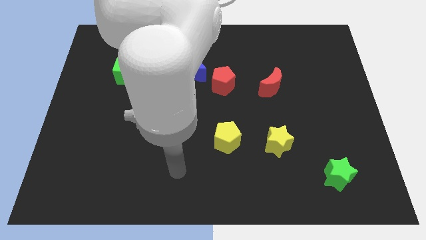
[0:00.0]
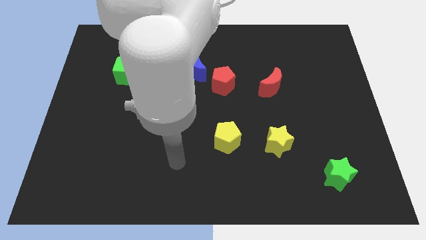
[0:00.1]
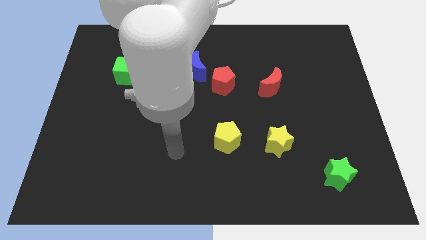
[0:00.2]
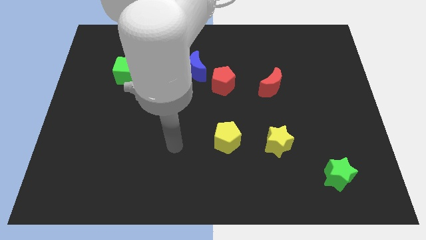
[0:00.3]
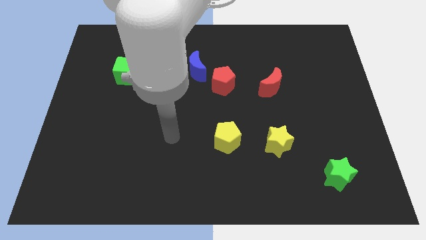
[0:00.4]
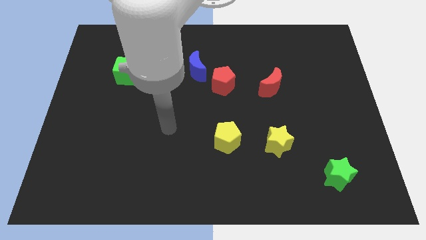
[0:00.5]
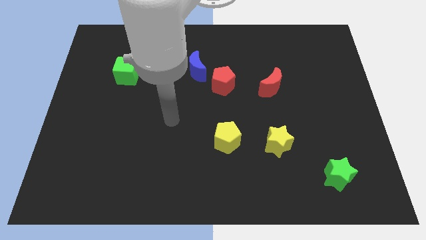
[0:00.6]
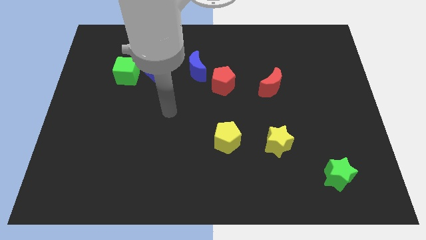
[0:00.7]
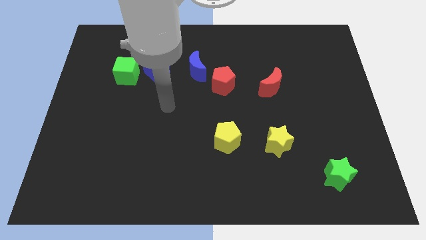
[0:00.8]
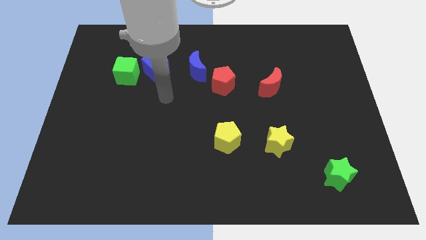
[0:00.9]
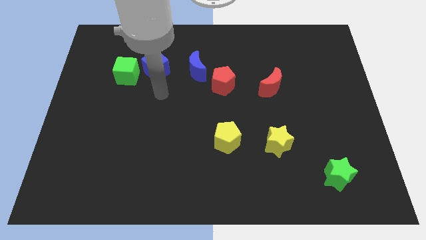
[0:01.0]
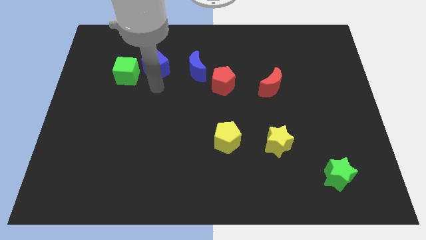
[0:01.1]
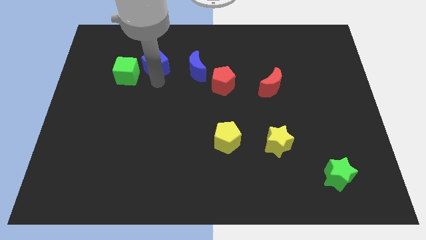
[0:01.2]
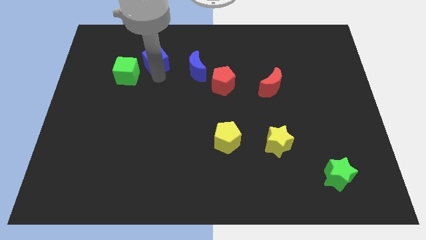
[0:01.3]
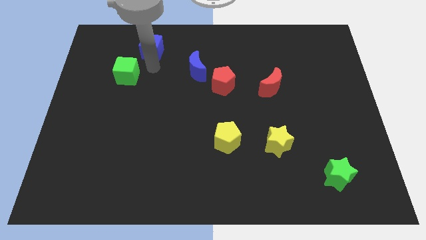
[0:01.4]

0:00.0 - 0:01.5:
pull the green cube apart from the blue cube

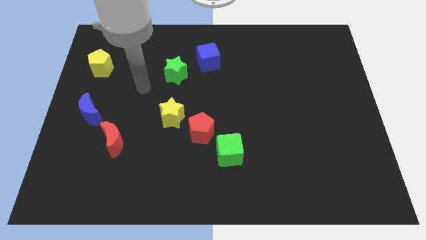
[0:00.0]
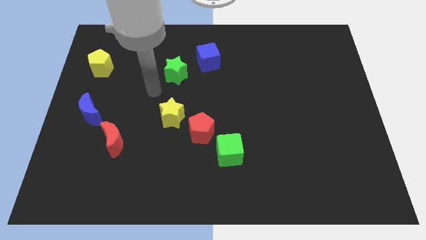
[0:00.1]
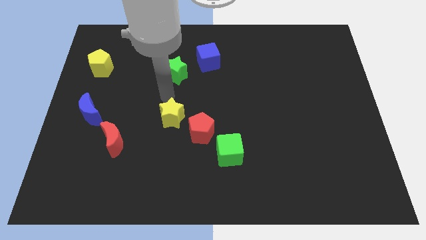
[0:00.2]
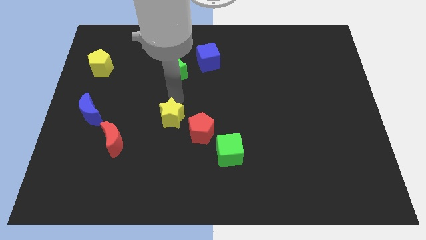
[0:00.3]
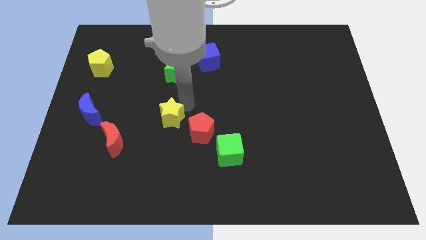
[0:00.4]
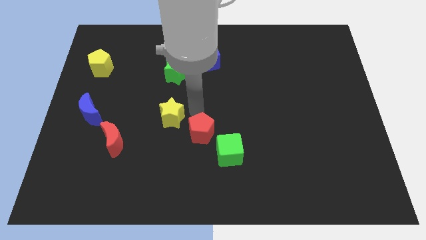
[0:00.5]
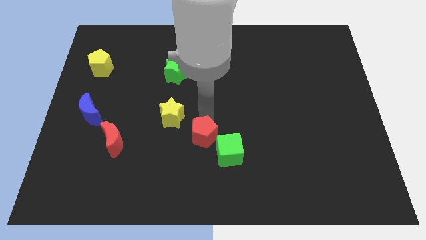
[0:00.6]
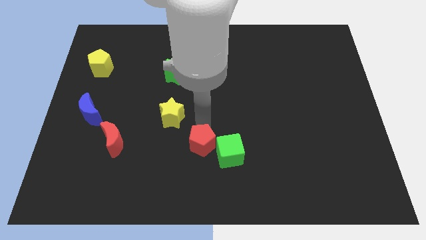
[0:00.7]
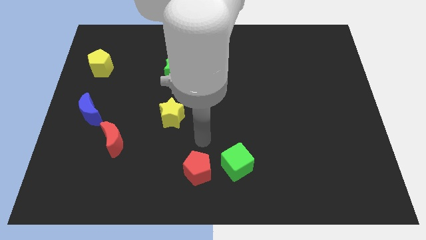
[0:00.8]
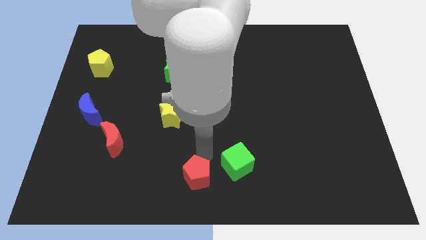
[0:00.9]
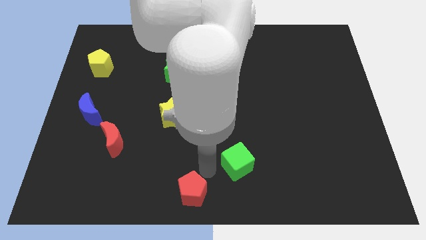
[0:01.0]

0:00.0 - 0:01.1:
separate the green cube from the red pentagon

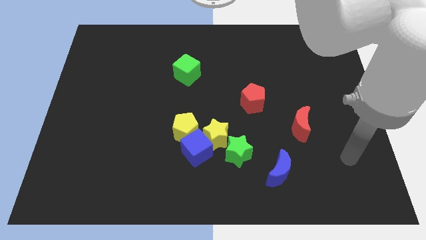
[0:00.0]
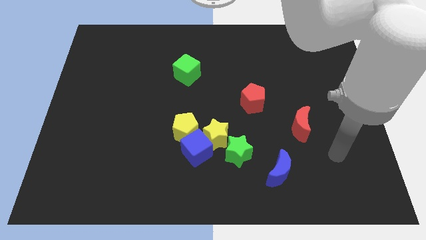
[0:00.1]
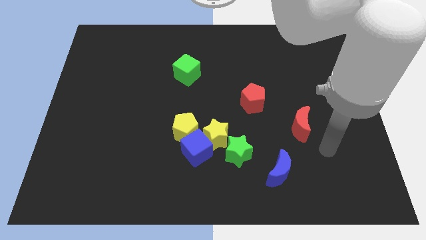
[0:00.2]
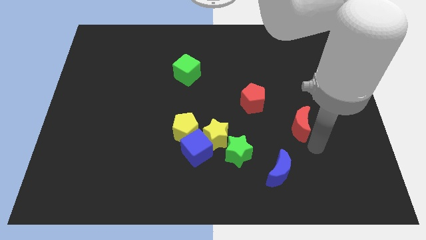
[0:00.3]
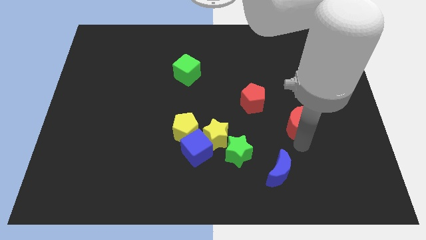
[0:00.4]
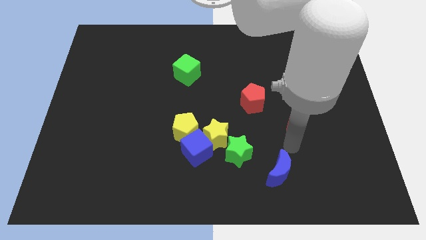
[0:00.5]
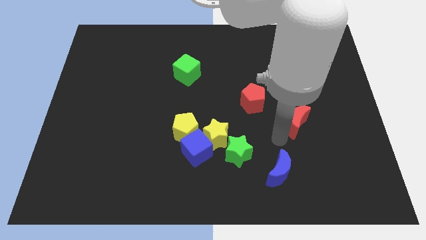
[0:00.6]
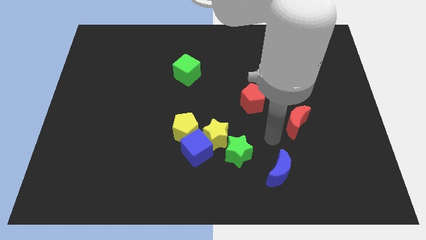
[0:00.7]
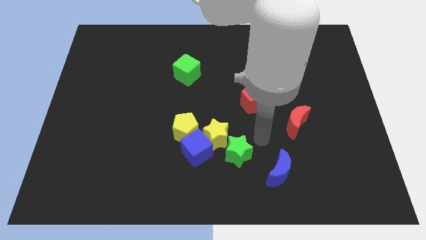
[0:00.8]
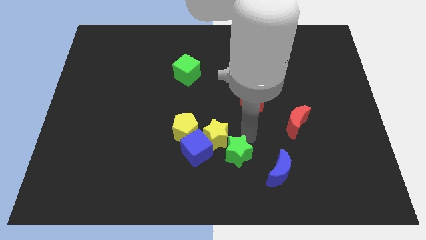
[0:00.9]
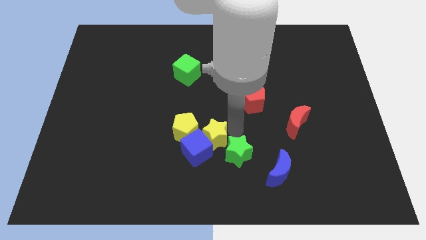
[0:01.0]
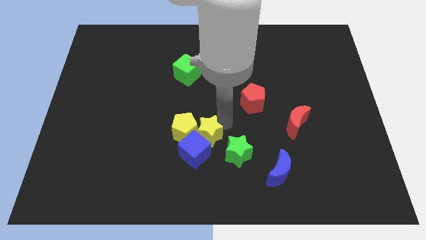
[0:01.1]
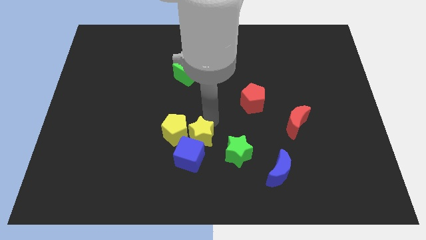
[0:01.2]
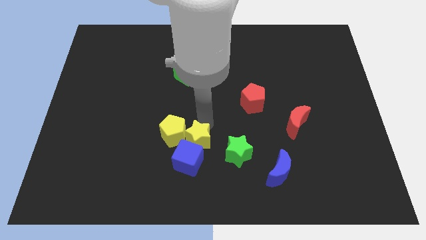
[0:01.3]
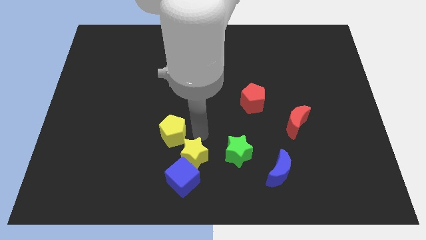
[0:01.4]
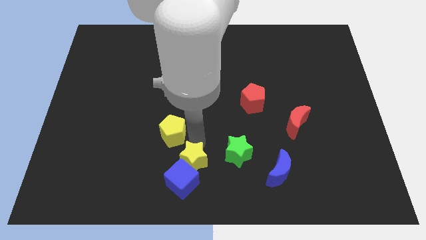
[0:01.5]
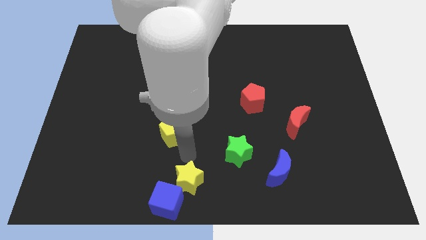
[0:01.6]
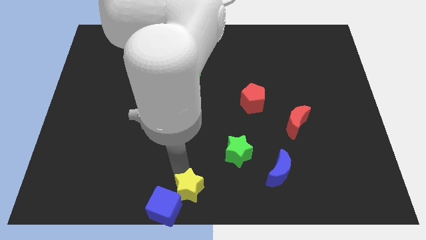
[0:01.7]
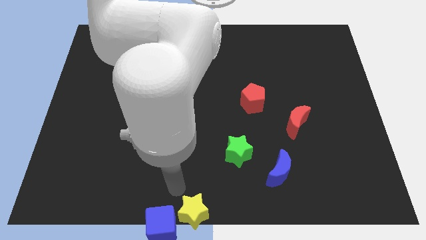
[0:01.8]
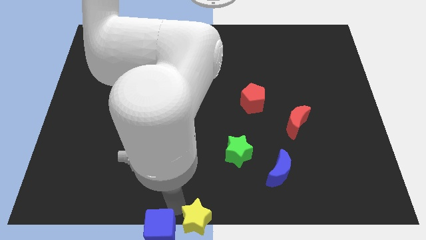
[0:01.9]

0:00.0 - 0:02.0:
move the yellow star away from the group

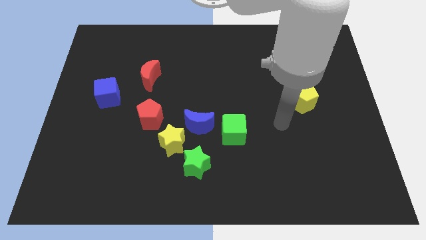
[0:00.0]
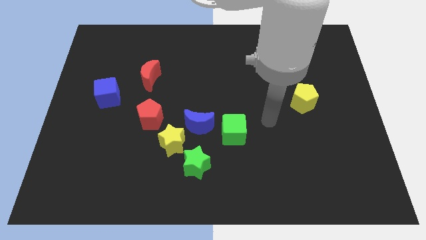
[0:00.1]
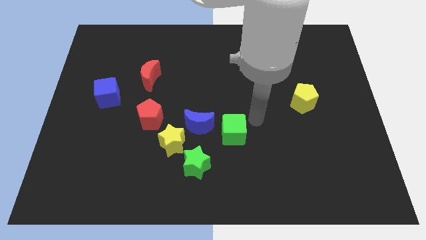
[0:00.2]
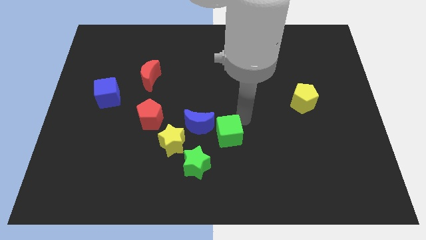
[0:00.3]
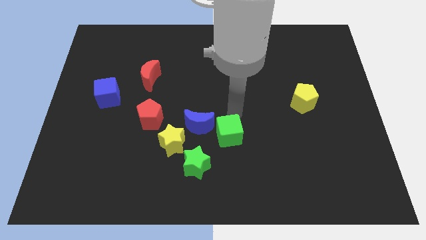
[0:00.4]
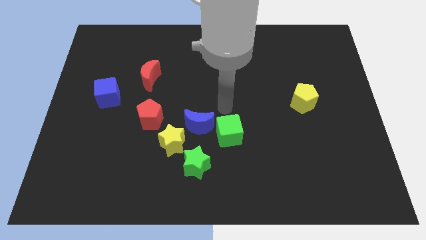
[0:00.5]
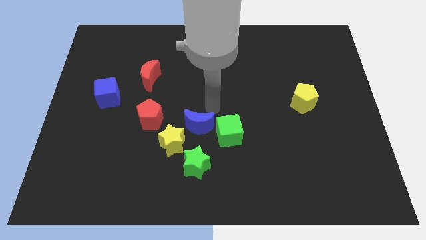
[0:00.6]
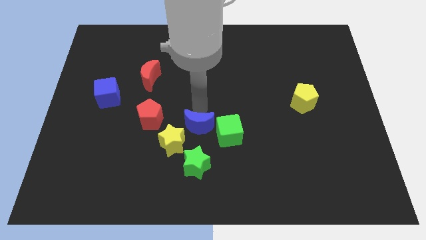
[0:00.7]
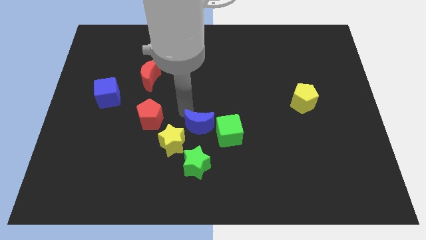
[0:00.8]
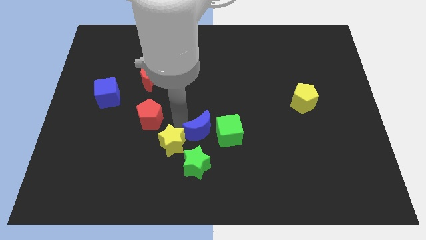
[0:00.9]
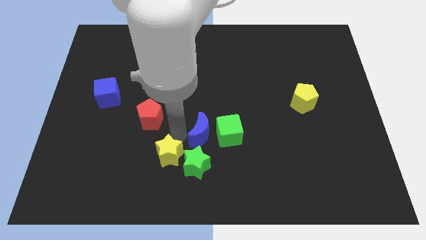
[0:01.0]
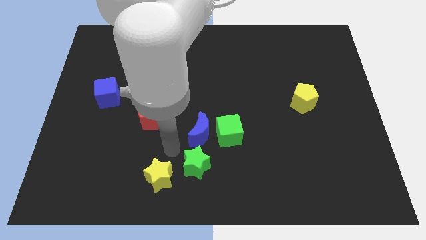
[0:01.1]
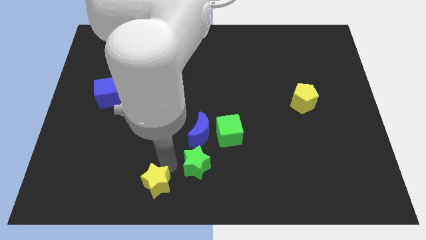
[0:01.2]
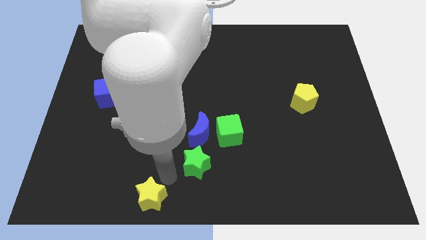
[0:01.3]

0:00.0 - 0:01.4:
move the green star away from the yellow star

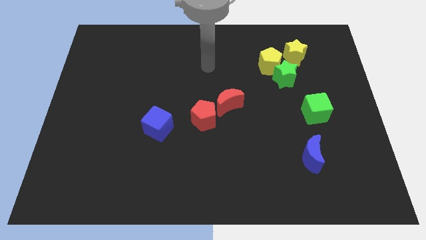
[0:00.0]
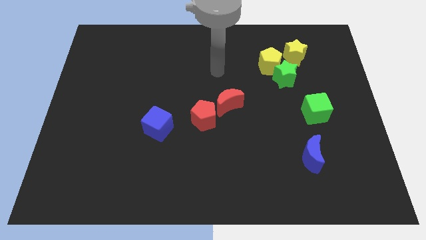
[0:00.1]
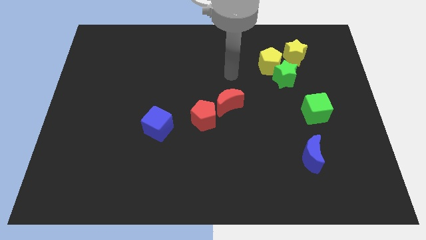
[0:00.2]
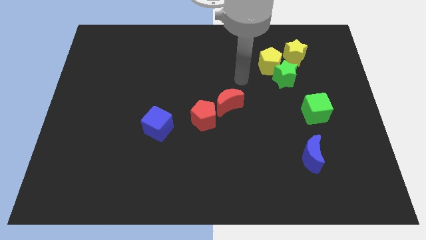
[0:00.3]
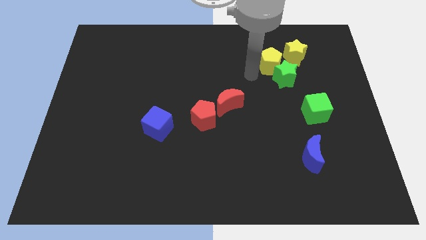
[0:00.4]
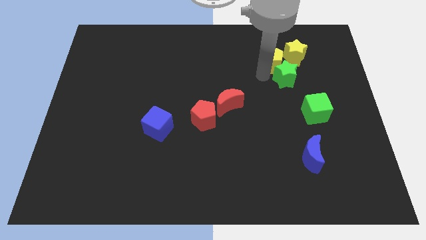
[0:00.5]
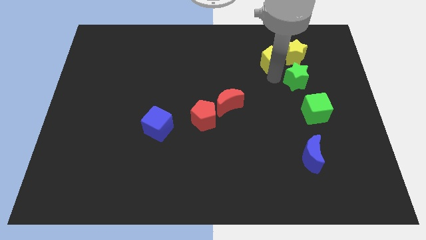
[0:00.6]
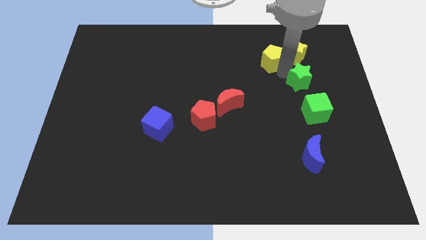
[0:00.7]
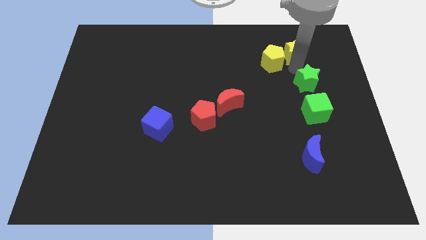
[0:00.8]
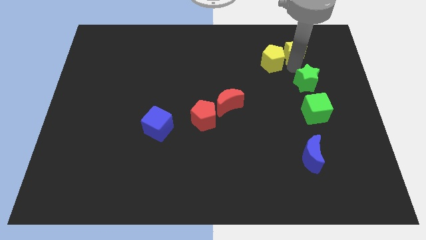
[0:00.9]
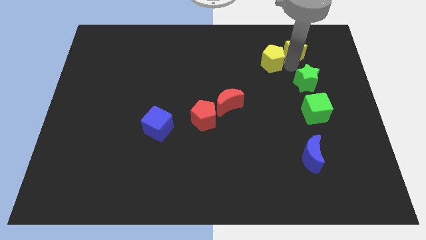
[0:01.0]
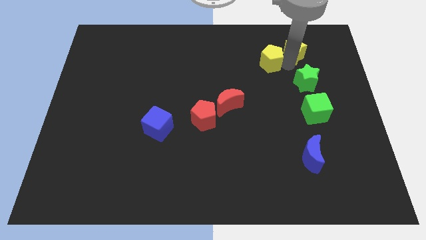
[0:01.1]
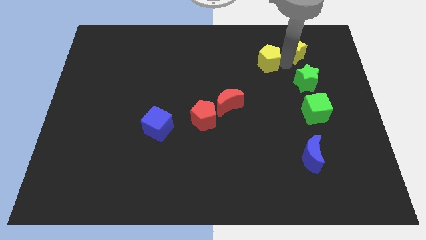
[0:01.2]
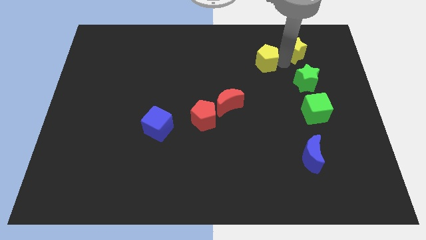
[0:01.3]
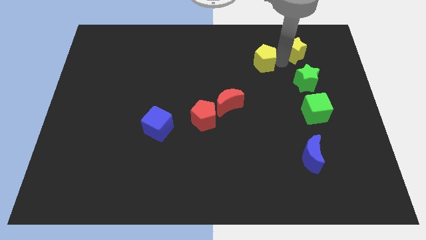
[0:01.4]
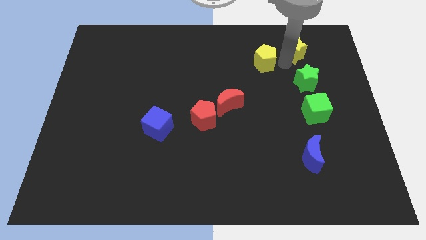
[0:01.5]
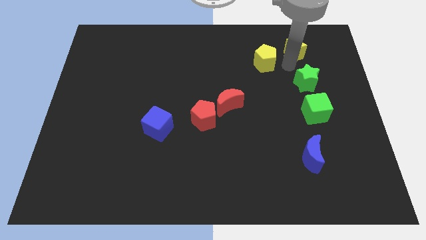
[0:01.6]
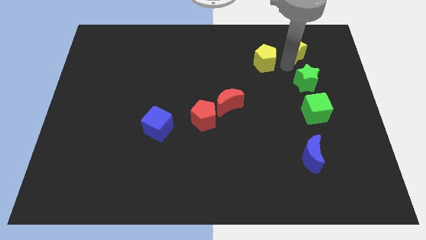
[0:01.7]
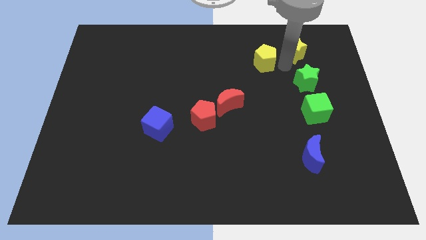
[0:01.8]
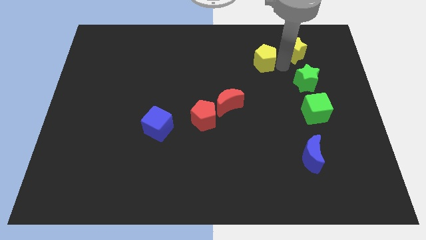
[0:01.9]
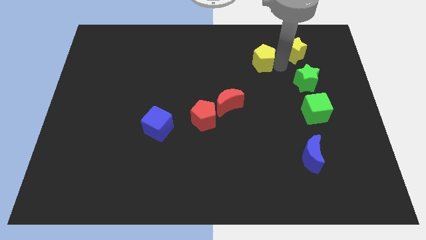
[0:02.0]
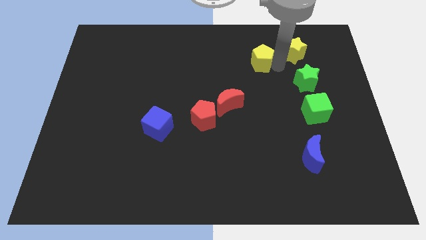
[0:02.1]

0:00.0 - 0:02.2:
pull the yellow pentagon apart from the green star and yellow star

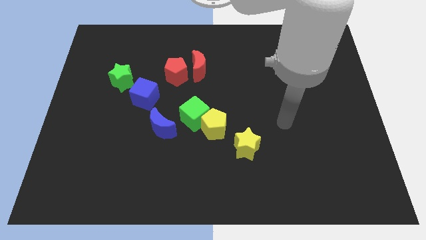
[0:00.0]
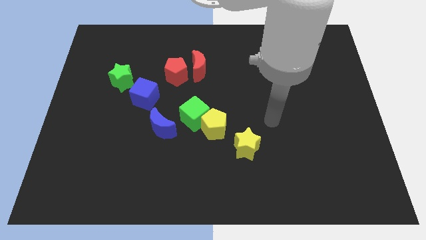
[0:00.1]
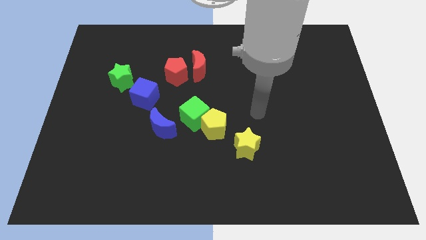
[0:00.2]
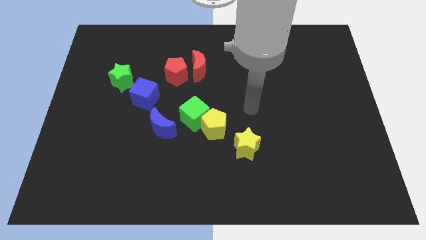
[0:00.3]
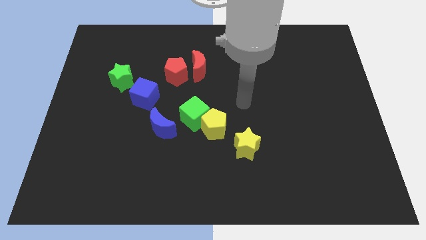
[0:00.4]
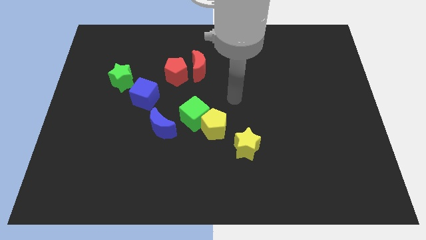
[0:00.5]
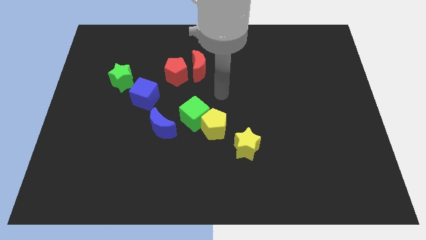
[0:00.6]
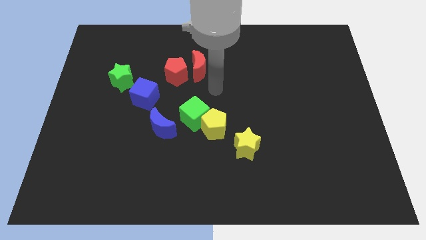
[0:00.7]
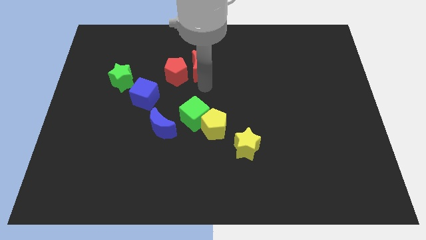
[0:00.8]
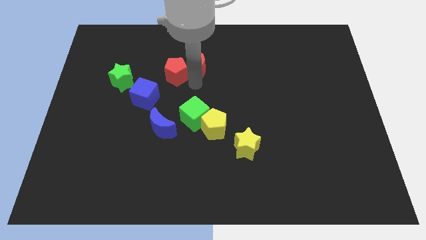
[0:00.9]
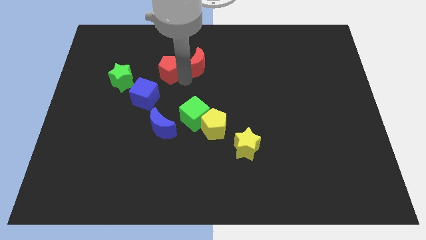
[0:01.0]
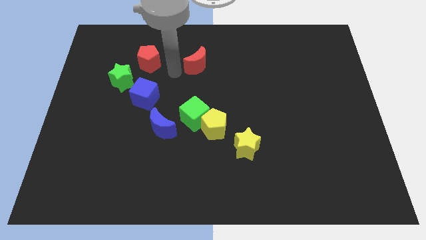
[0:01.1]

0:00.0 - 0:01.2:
move the red moon away from the red pentagon
